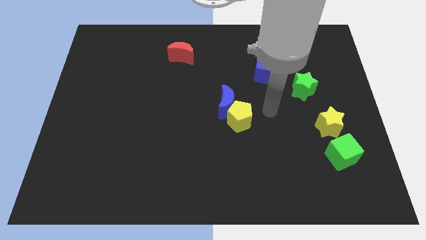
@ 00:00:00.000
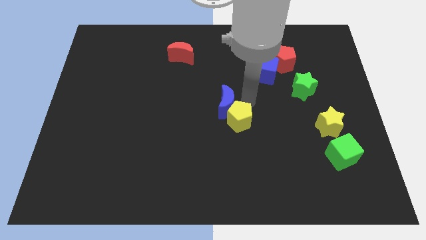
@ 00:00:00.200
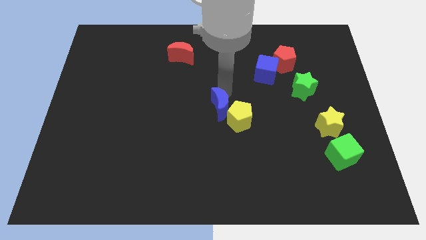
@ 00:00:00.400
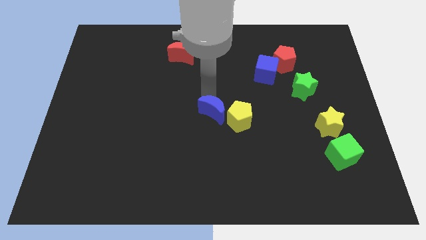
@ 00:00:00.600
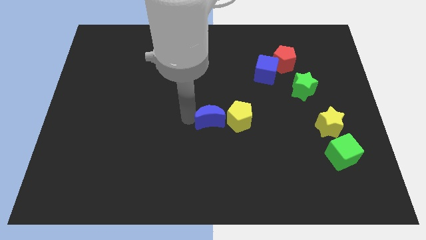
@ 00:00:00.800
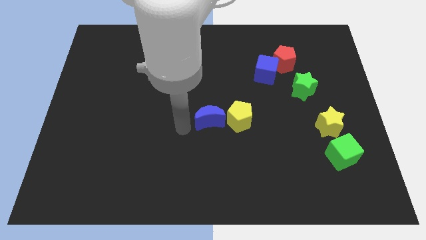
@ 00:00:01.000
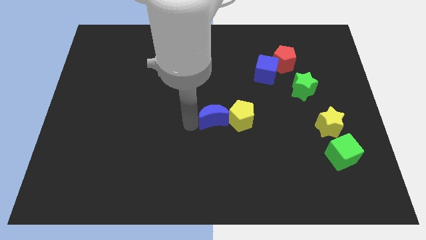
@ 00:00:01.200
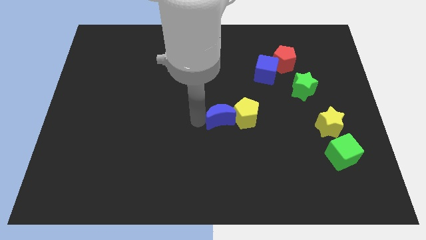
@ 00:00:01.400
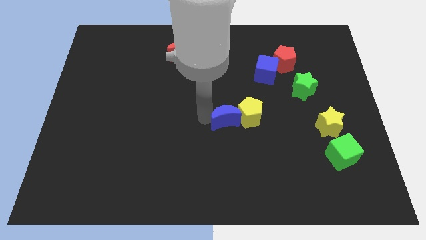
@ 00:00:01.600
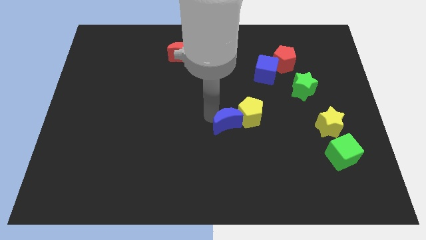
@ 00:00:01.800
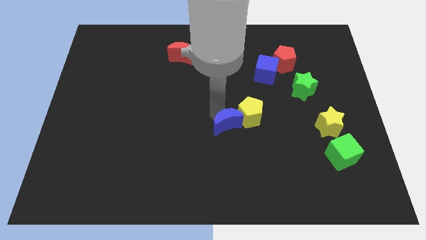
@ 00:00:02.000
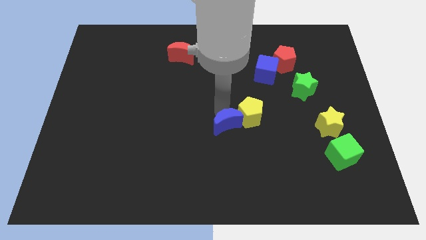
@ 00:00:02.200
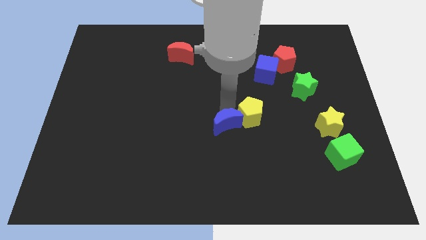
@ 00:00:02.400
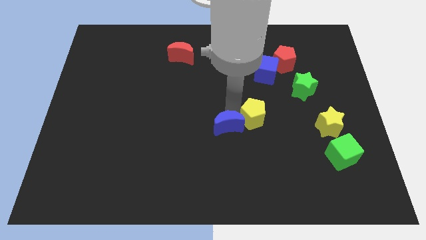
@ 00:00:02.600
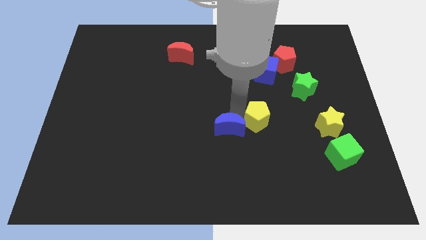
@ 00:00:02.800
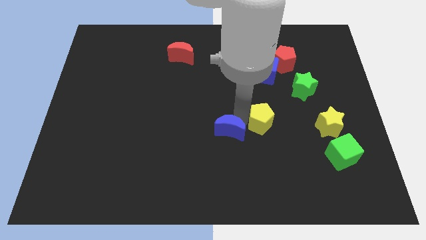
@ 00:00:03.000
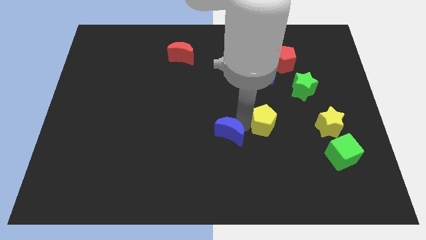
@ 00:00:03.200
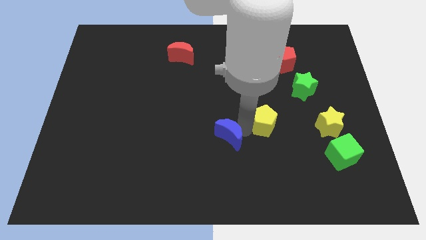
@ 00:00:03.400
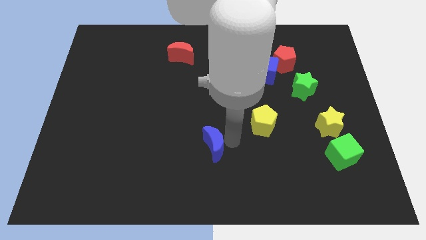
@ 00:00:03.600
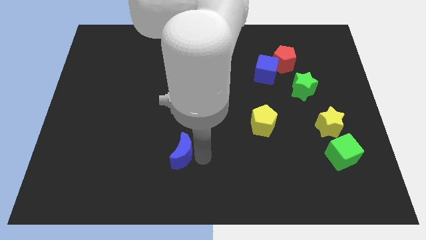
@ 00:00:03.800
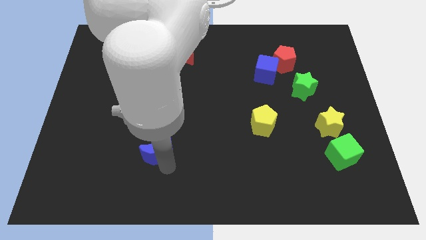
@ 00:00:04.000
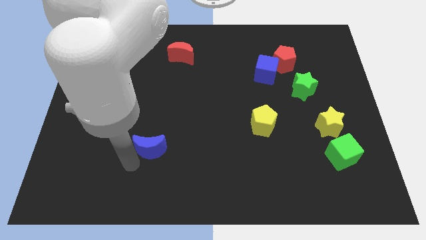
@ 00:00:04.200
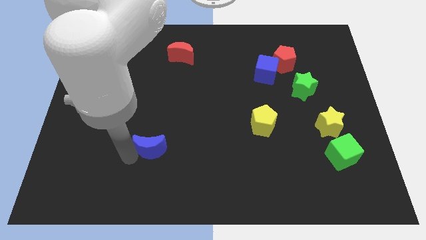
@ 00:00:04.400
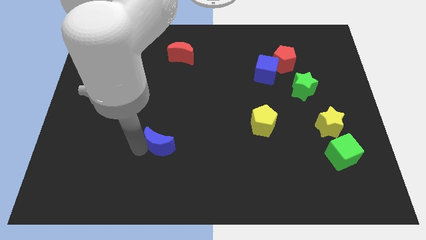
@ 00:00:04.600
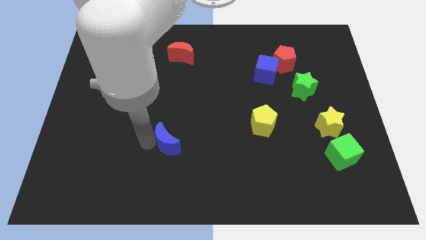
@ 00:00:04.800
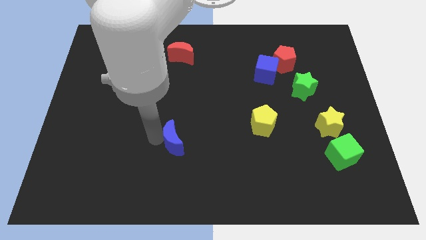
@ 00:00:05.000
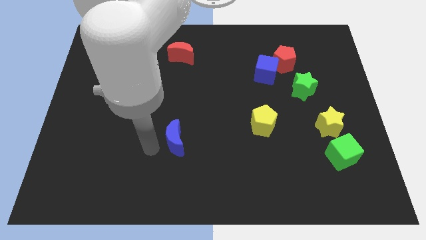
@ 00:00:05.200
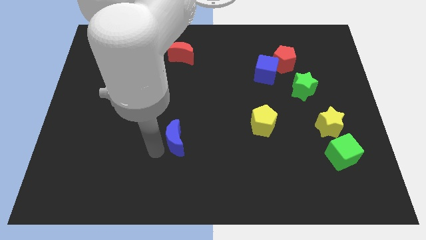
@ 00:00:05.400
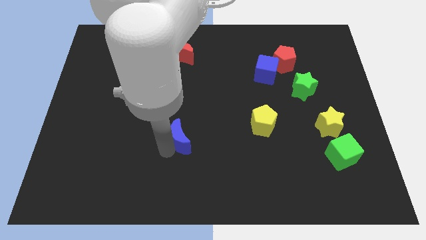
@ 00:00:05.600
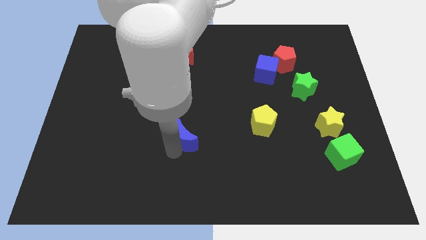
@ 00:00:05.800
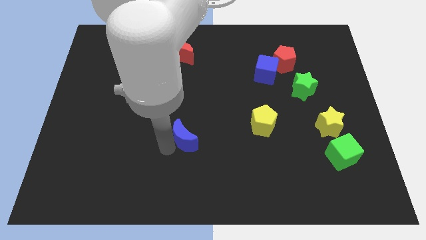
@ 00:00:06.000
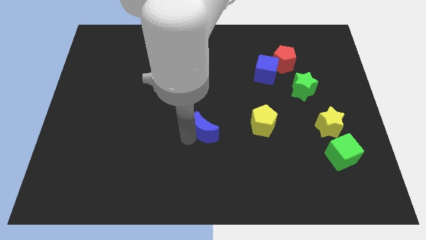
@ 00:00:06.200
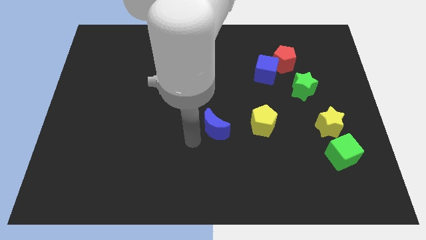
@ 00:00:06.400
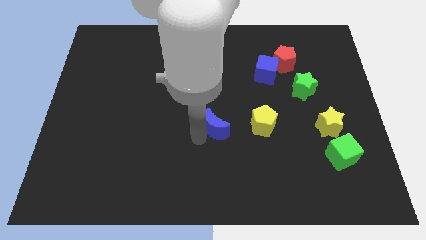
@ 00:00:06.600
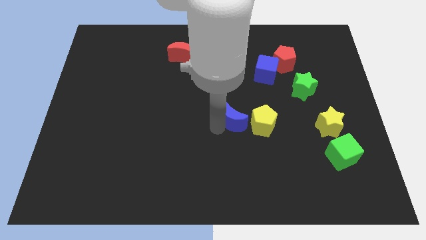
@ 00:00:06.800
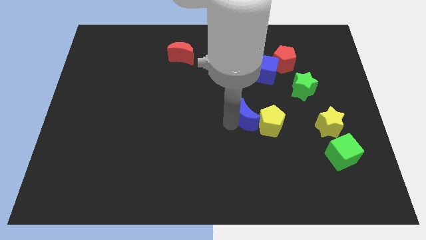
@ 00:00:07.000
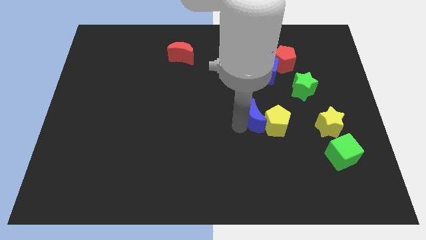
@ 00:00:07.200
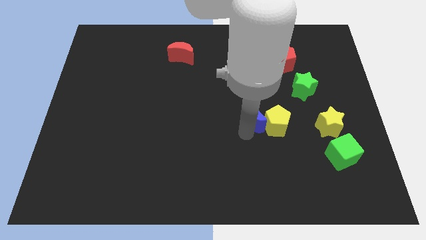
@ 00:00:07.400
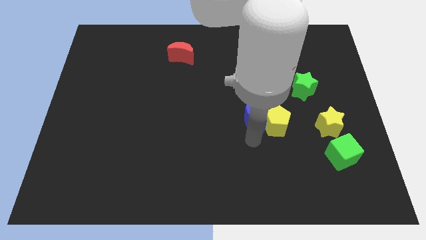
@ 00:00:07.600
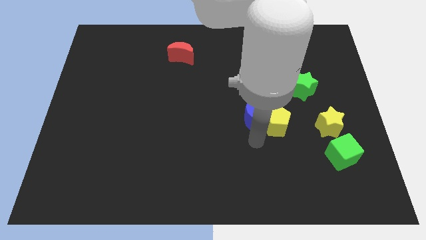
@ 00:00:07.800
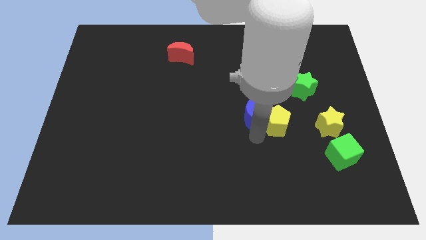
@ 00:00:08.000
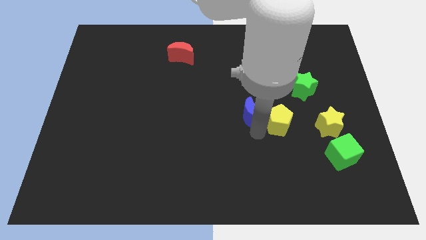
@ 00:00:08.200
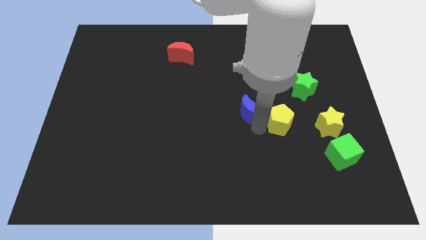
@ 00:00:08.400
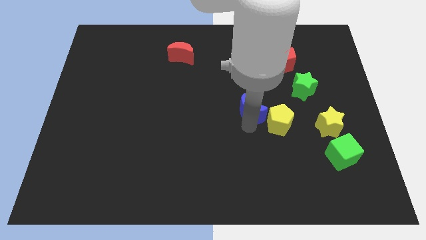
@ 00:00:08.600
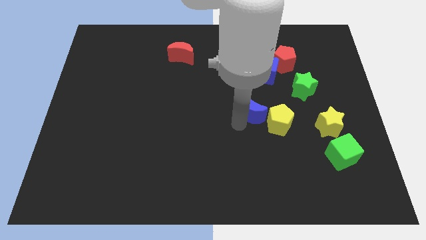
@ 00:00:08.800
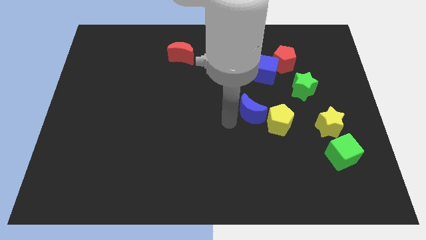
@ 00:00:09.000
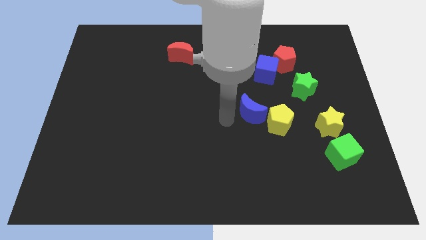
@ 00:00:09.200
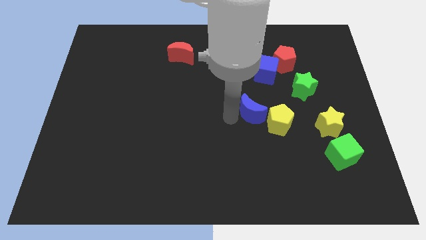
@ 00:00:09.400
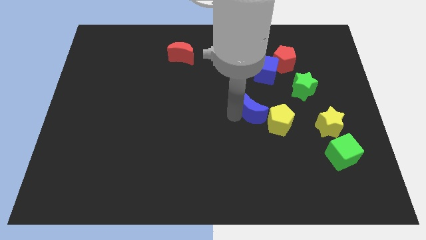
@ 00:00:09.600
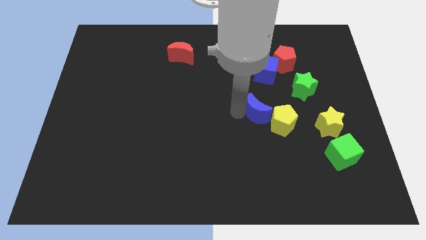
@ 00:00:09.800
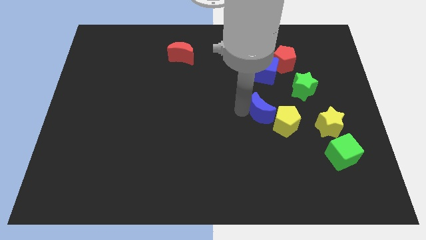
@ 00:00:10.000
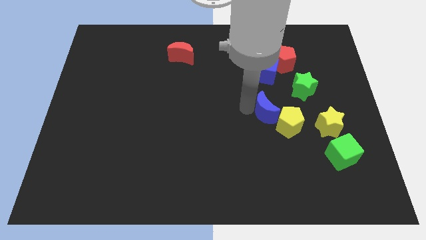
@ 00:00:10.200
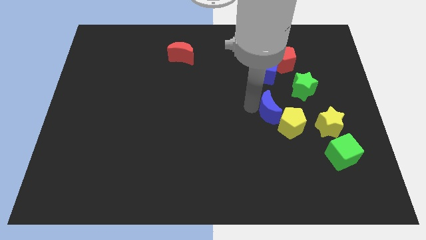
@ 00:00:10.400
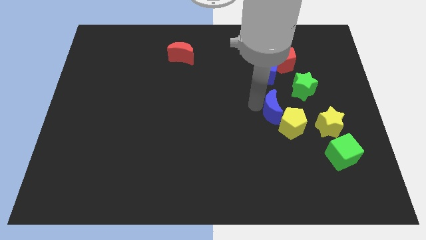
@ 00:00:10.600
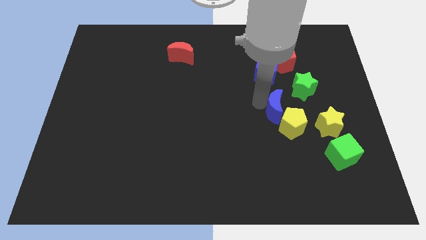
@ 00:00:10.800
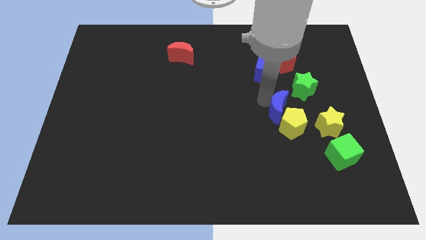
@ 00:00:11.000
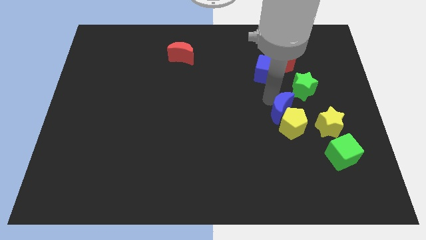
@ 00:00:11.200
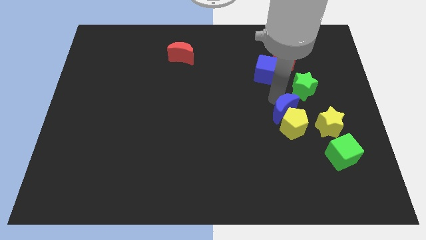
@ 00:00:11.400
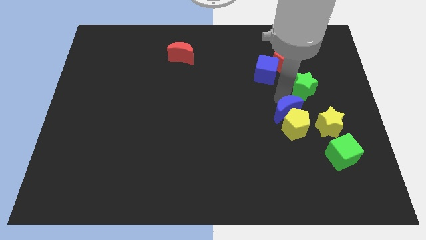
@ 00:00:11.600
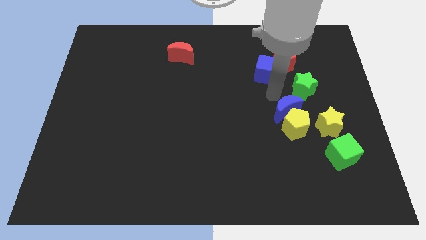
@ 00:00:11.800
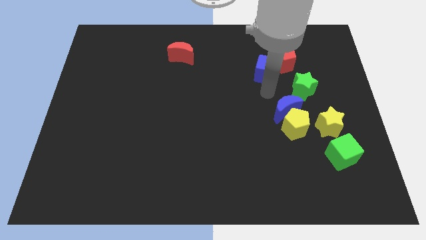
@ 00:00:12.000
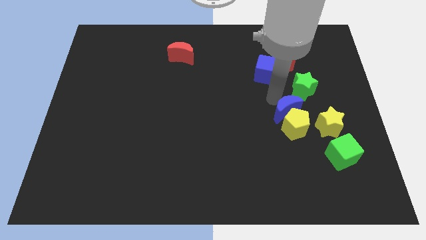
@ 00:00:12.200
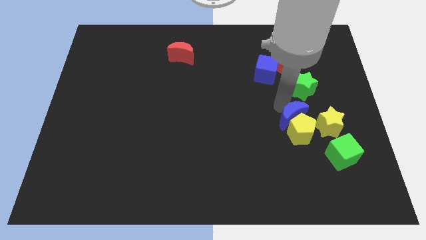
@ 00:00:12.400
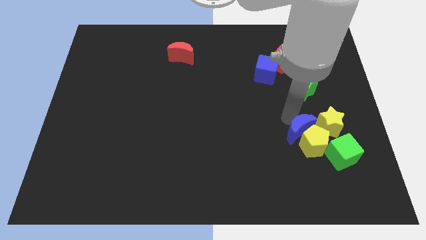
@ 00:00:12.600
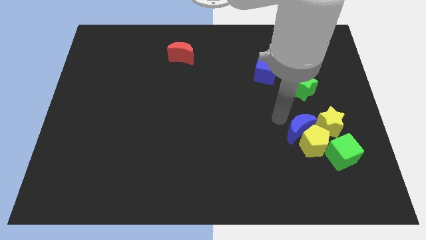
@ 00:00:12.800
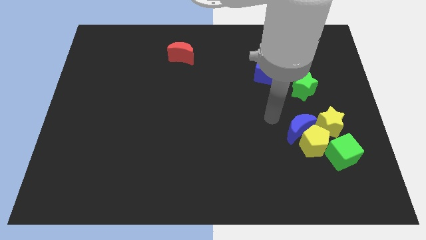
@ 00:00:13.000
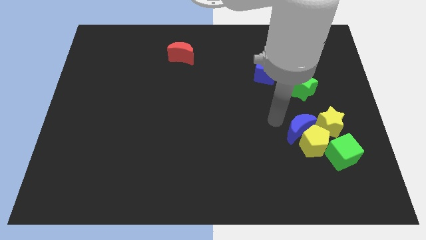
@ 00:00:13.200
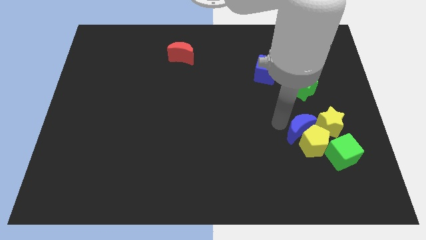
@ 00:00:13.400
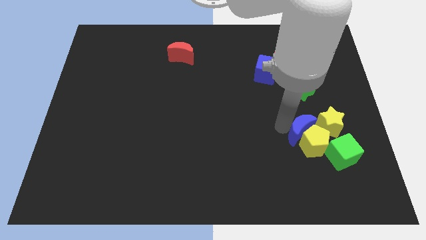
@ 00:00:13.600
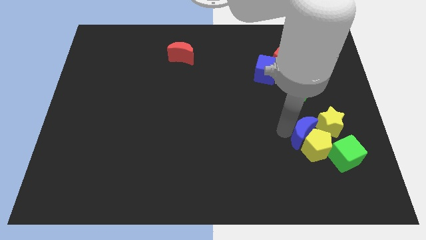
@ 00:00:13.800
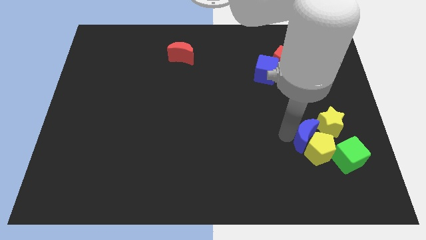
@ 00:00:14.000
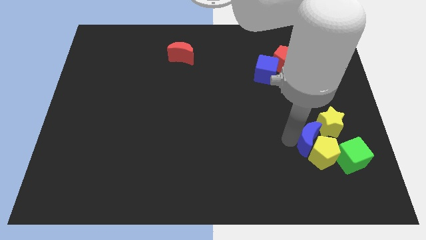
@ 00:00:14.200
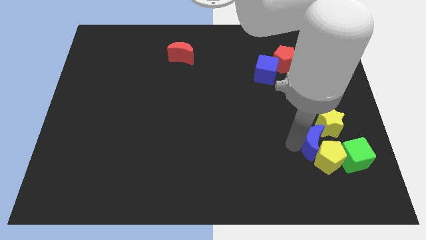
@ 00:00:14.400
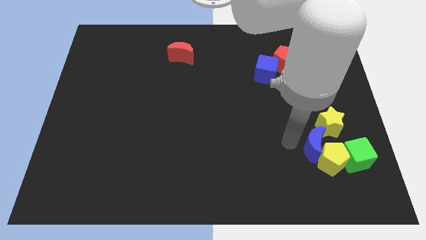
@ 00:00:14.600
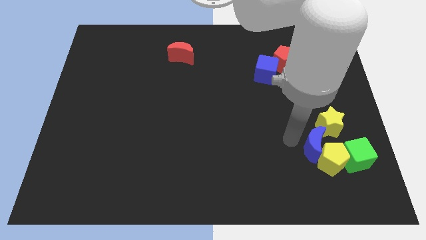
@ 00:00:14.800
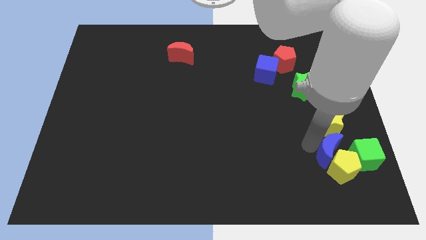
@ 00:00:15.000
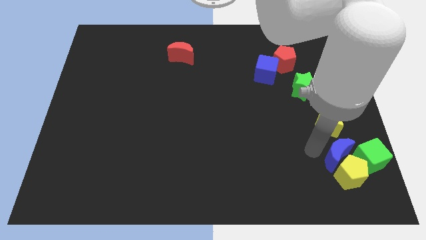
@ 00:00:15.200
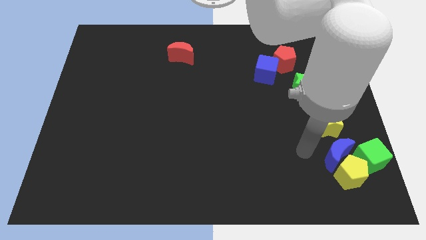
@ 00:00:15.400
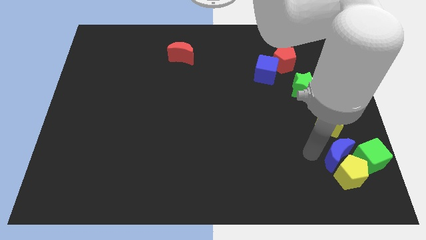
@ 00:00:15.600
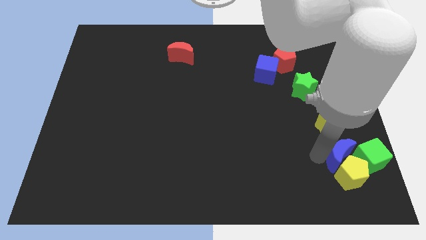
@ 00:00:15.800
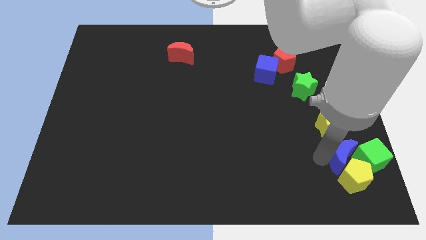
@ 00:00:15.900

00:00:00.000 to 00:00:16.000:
put the blue moon towards the green cube
